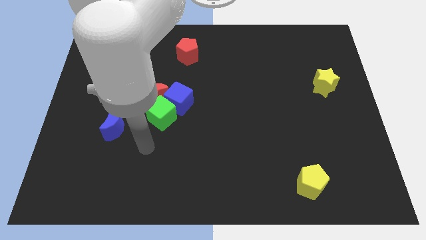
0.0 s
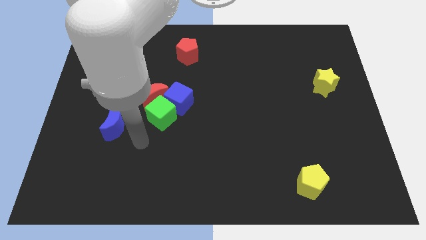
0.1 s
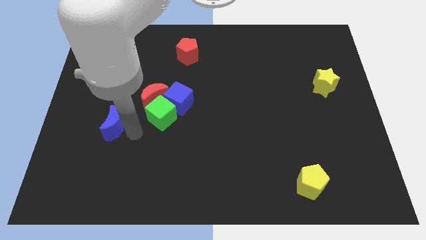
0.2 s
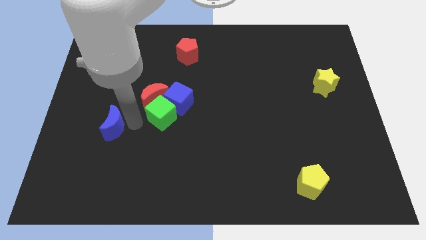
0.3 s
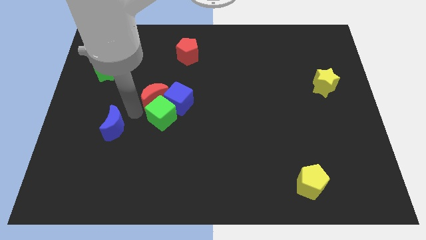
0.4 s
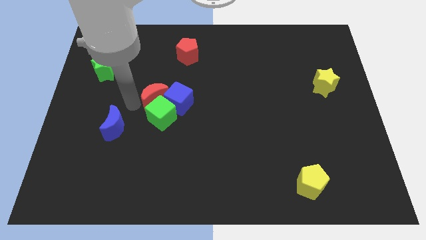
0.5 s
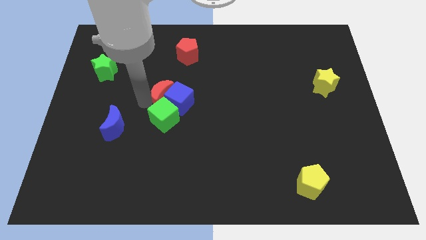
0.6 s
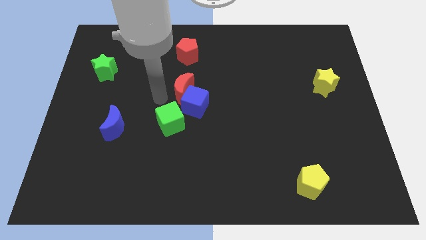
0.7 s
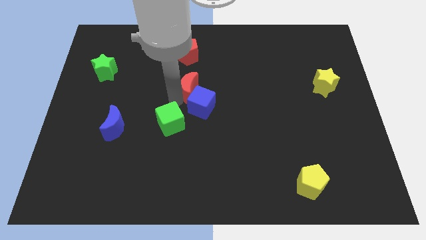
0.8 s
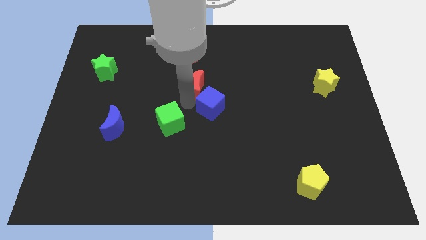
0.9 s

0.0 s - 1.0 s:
pull the green cube apart from the red moon and blue cube

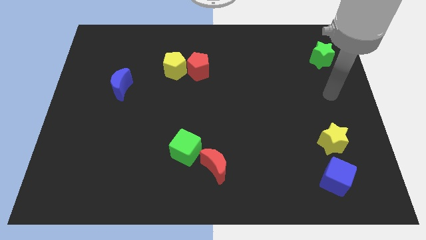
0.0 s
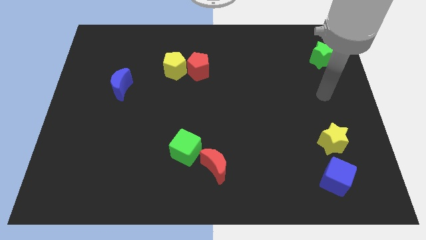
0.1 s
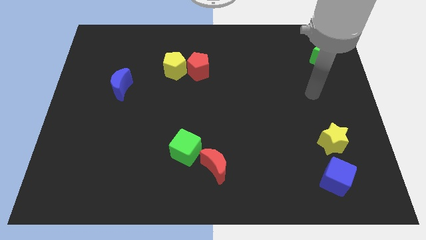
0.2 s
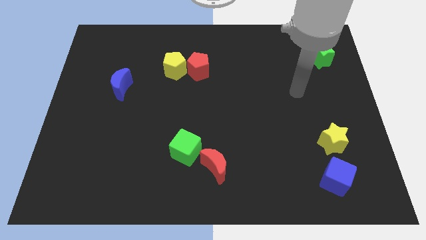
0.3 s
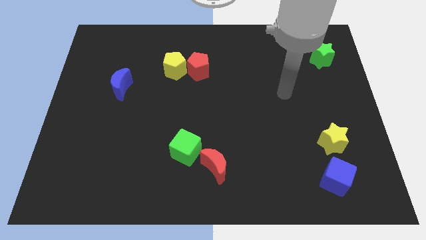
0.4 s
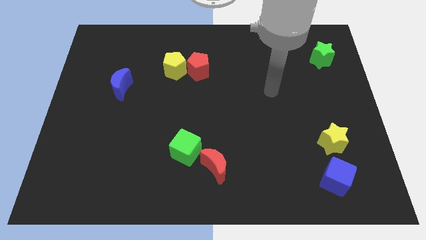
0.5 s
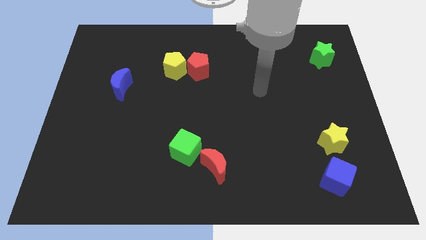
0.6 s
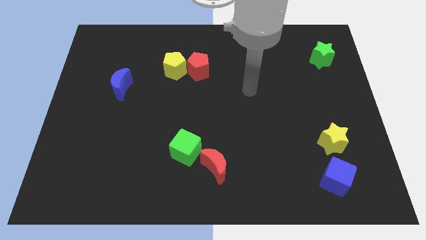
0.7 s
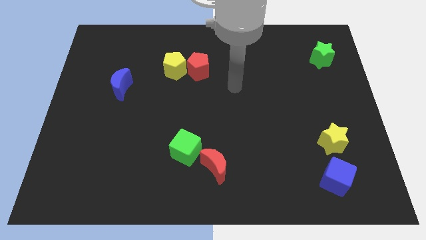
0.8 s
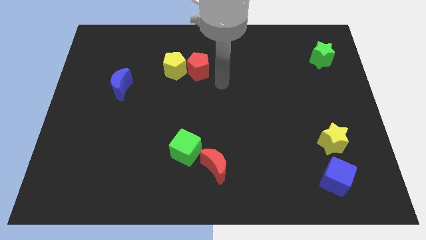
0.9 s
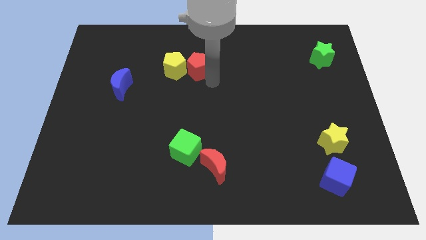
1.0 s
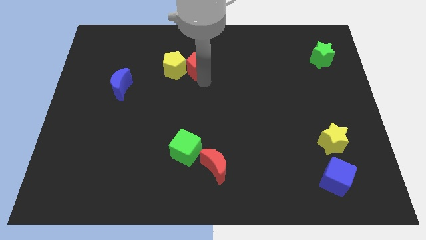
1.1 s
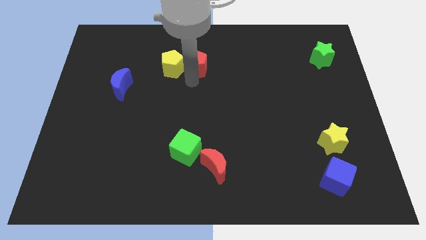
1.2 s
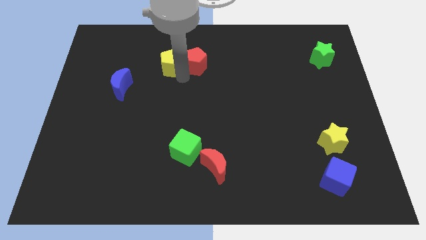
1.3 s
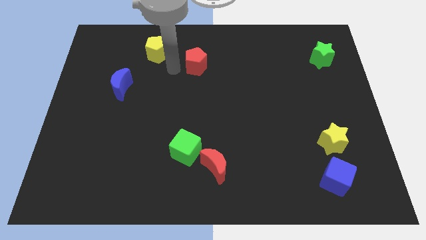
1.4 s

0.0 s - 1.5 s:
move the red pentagon away from the yellow pentagon

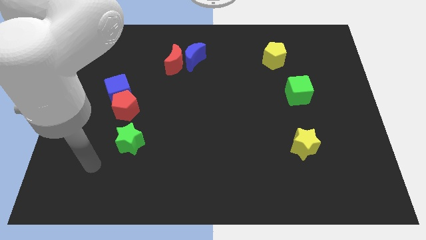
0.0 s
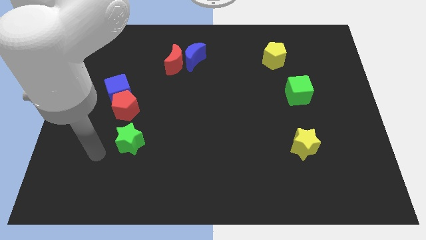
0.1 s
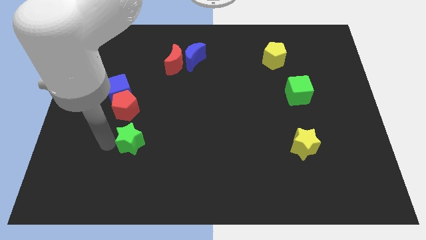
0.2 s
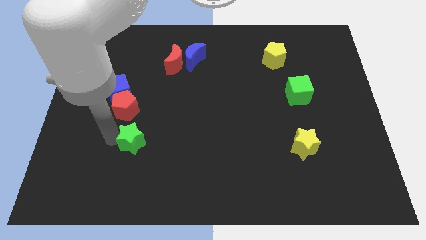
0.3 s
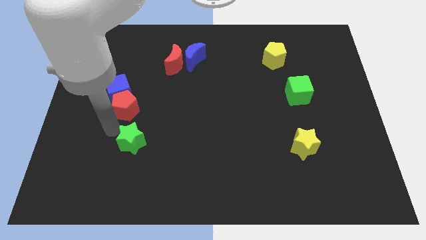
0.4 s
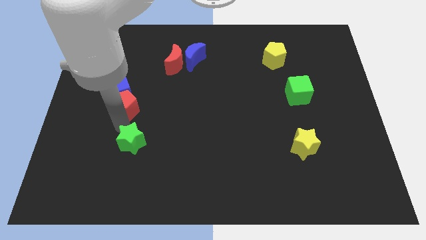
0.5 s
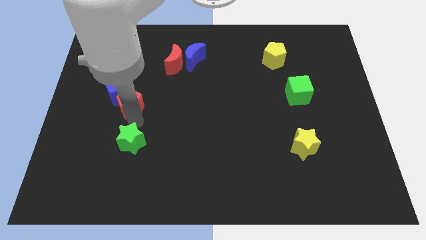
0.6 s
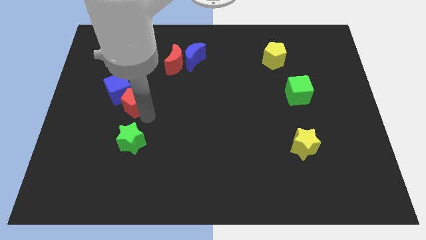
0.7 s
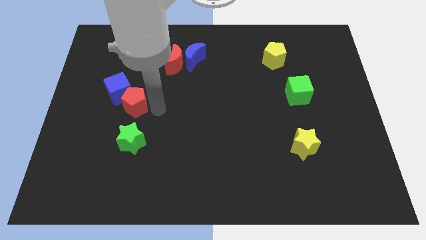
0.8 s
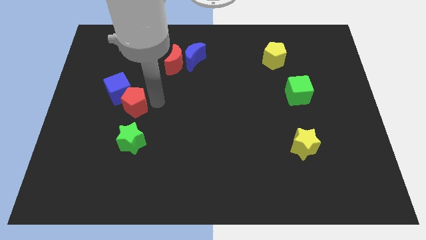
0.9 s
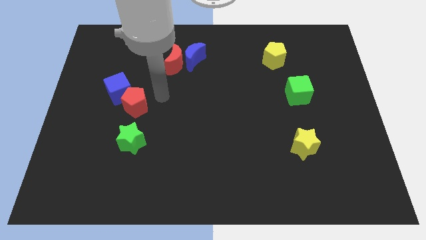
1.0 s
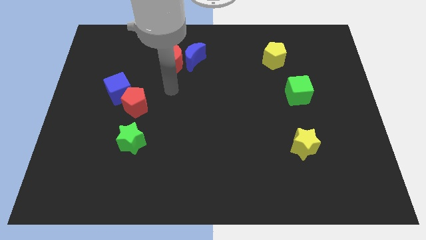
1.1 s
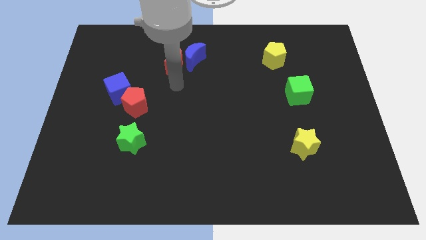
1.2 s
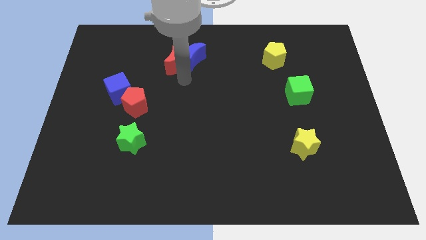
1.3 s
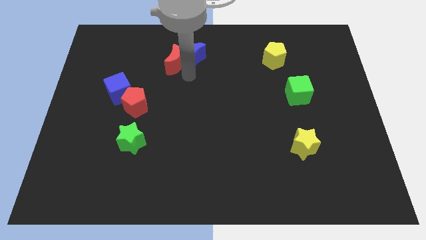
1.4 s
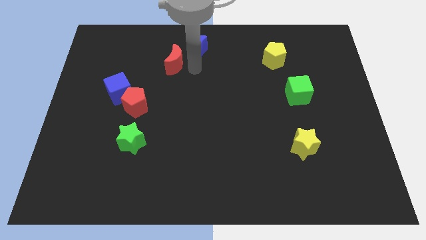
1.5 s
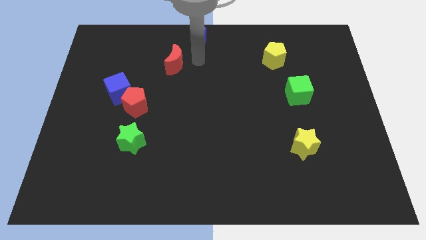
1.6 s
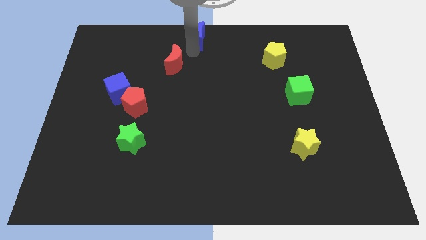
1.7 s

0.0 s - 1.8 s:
pull the red moon apart from the blue moon

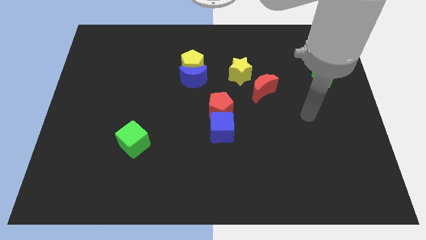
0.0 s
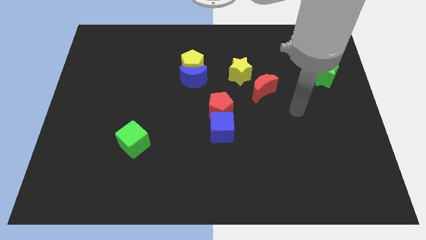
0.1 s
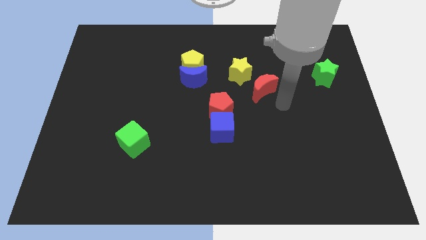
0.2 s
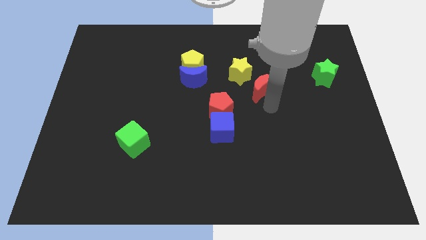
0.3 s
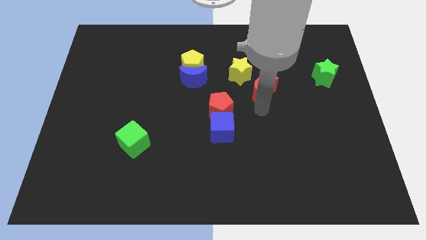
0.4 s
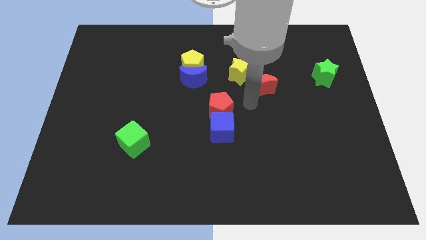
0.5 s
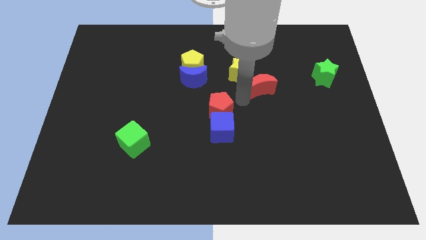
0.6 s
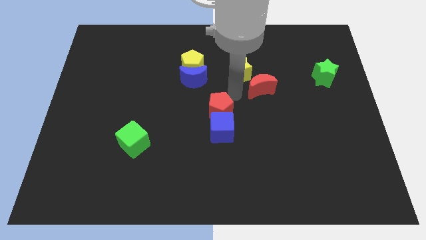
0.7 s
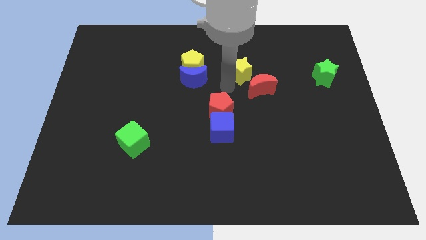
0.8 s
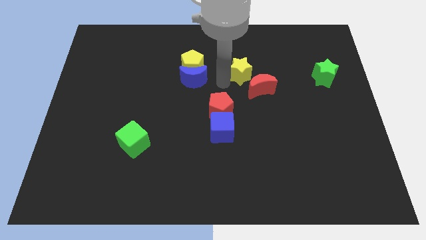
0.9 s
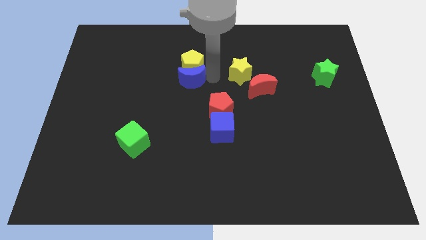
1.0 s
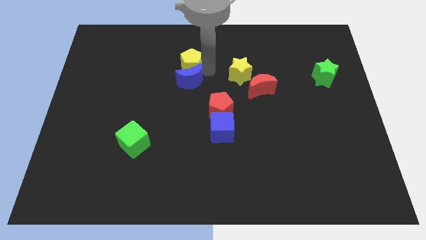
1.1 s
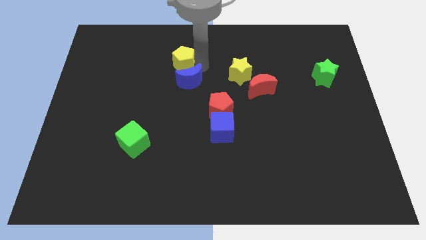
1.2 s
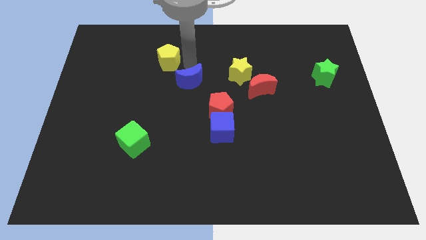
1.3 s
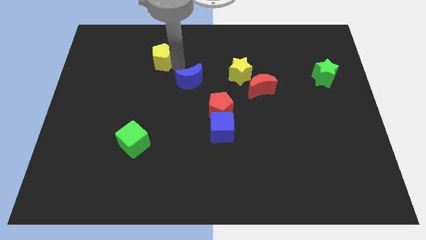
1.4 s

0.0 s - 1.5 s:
pull the blue moon apart from the yellow pentagon

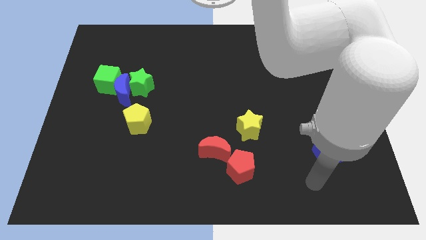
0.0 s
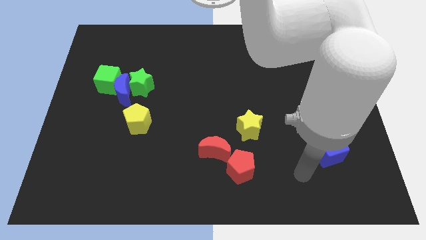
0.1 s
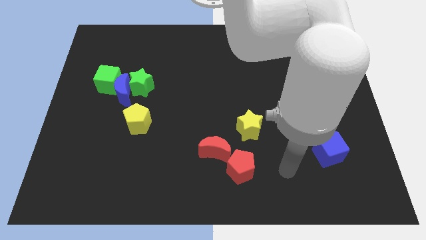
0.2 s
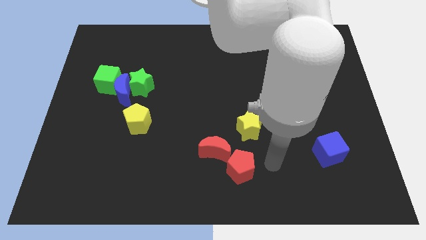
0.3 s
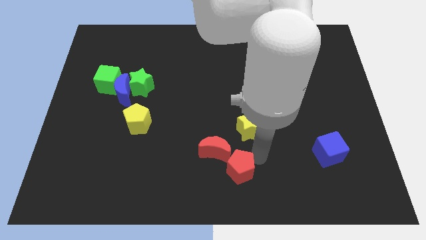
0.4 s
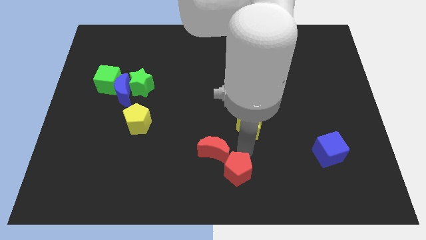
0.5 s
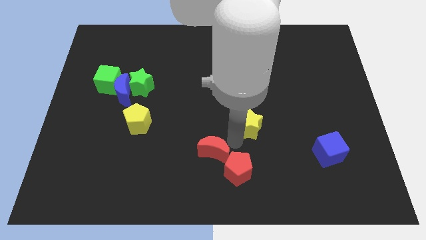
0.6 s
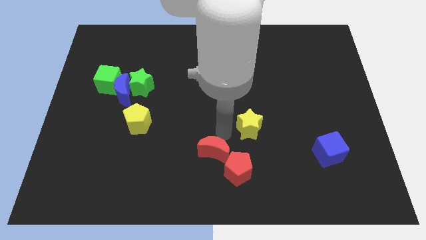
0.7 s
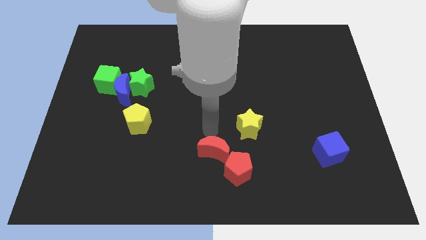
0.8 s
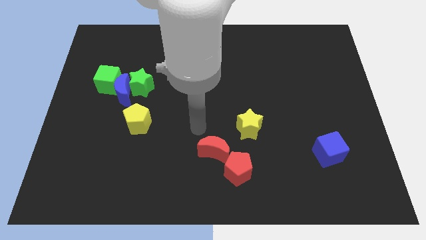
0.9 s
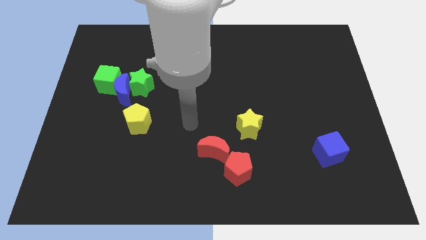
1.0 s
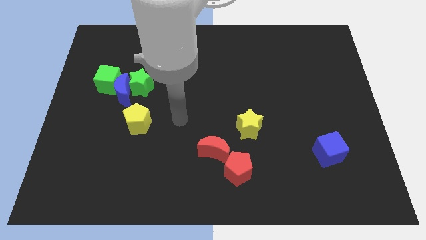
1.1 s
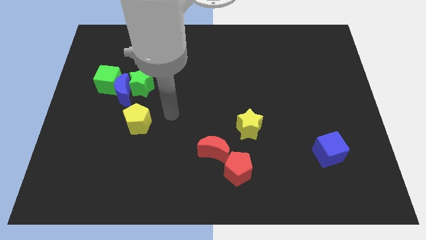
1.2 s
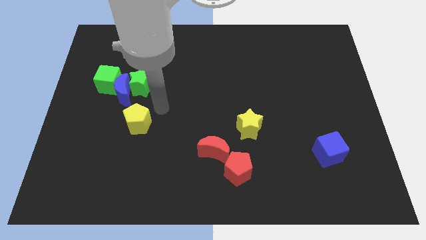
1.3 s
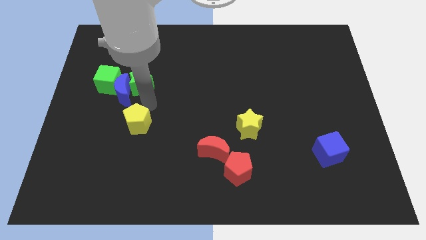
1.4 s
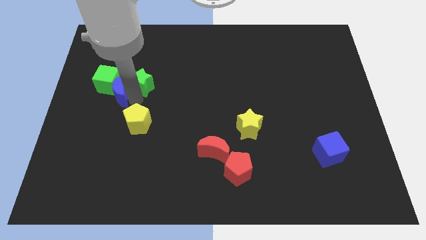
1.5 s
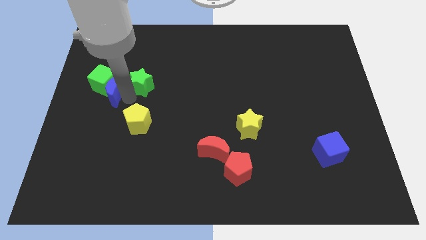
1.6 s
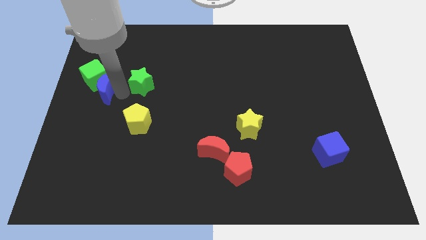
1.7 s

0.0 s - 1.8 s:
separate the green star from the blue moon and green cube

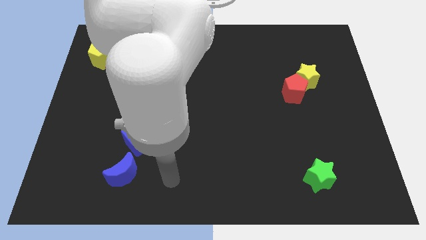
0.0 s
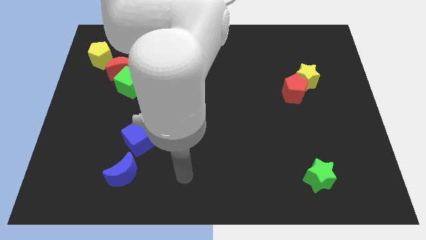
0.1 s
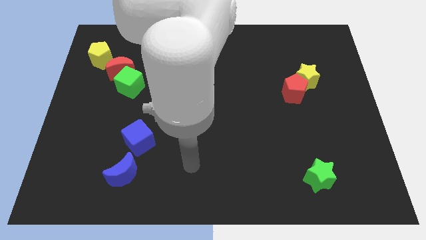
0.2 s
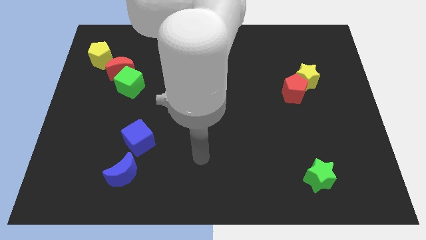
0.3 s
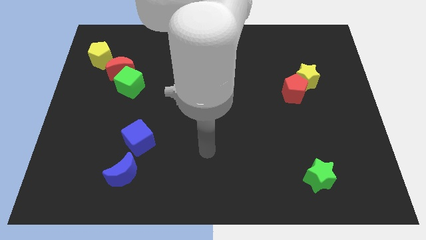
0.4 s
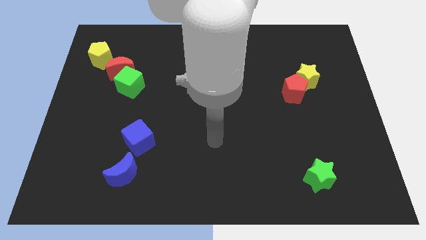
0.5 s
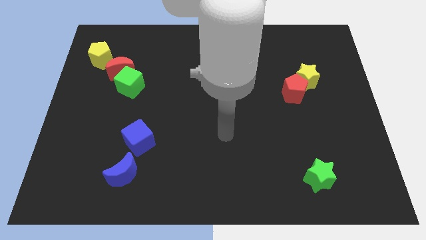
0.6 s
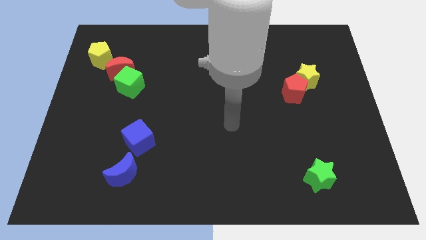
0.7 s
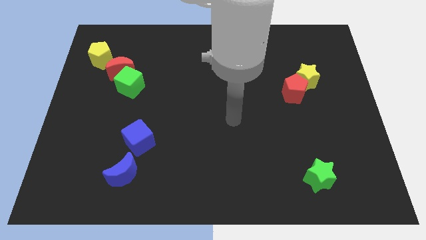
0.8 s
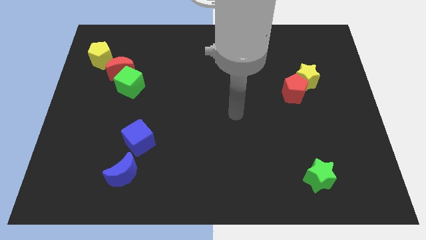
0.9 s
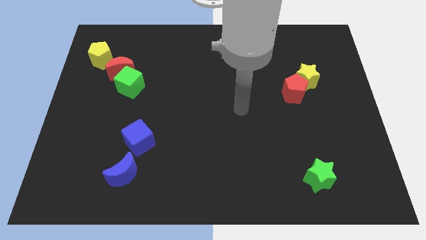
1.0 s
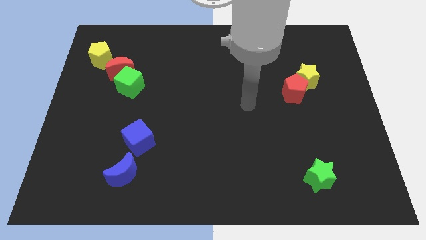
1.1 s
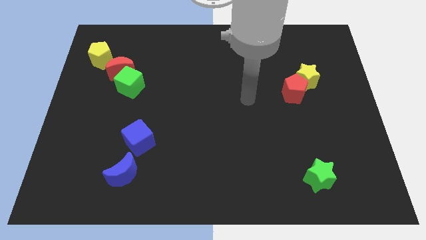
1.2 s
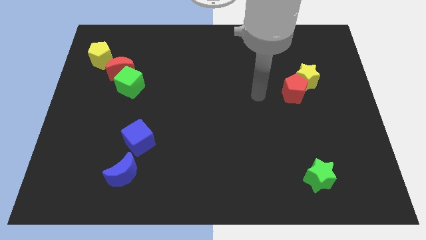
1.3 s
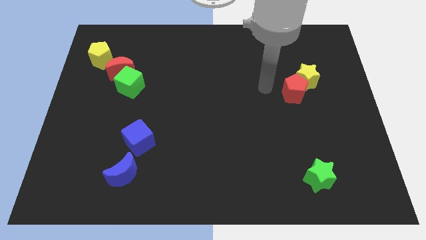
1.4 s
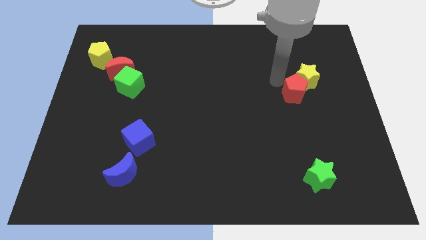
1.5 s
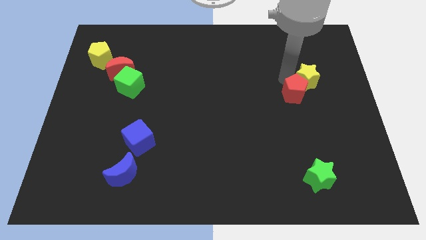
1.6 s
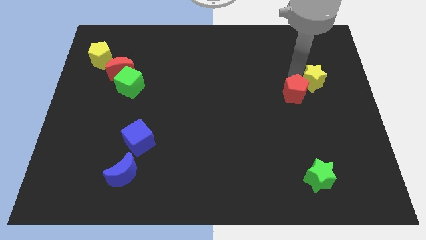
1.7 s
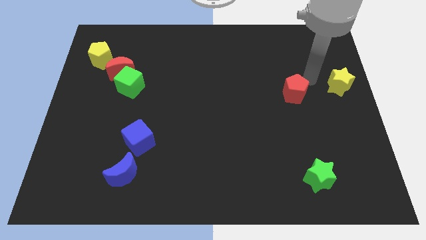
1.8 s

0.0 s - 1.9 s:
move the red pentagon away from the yellow star
